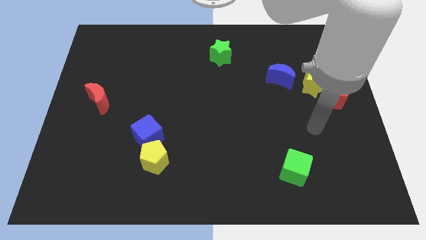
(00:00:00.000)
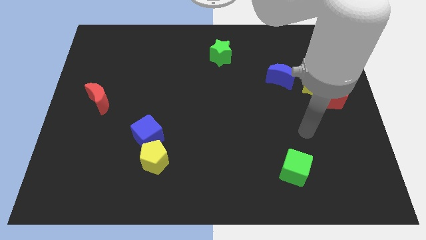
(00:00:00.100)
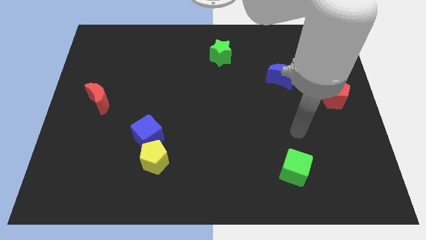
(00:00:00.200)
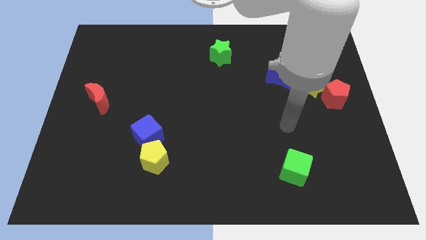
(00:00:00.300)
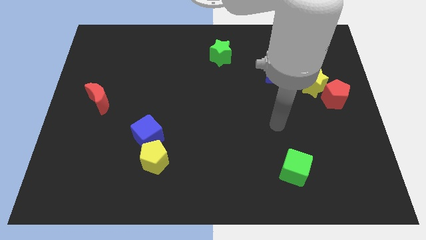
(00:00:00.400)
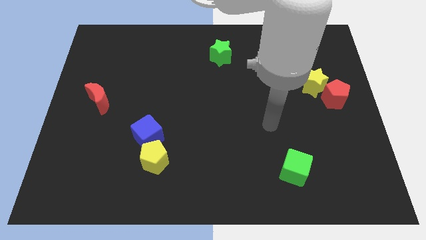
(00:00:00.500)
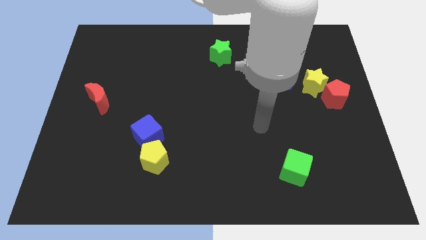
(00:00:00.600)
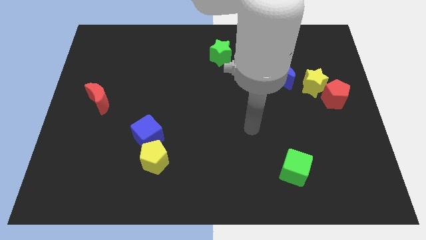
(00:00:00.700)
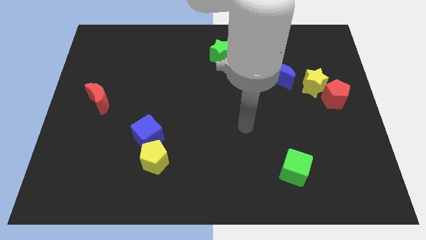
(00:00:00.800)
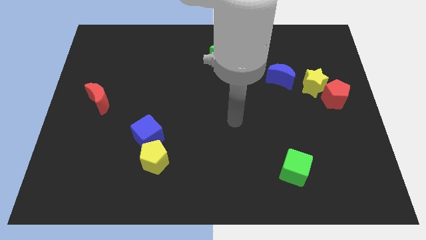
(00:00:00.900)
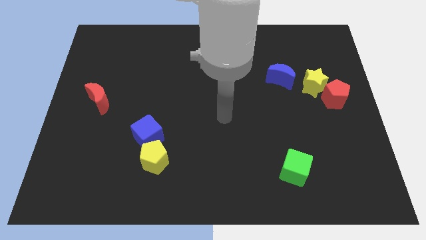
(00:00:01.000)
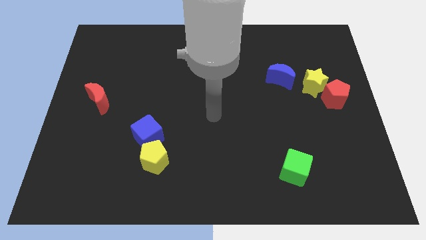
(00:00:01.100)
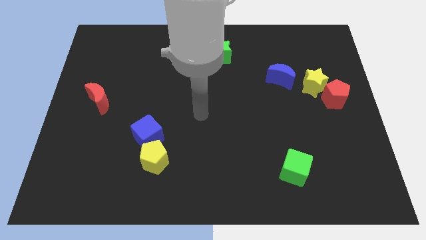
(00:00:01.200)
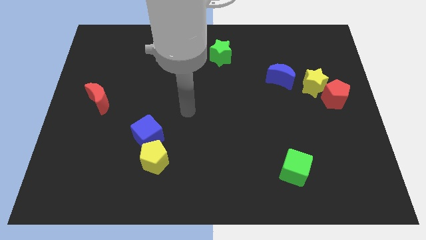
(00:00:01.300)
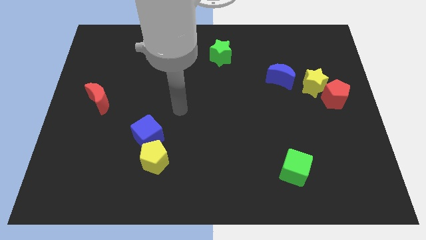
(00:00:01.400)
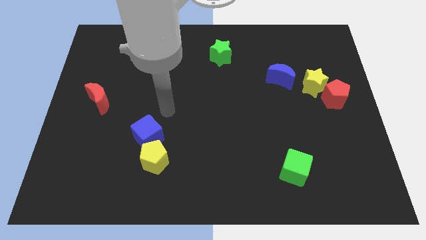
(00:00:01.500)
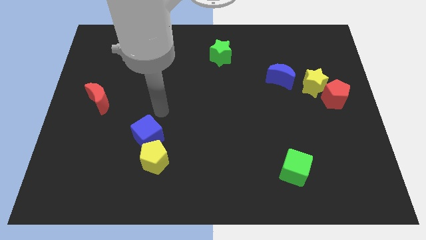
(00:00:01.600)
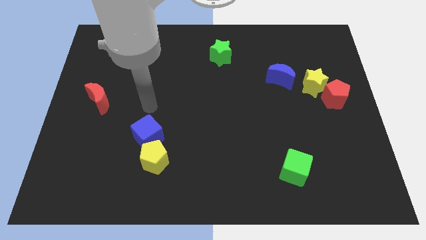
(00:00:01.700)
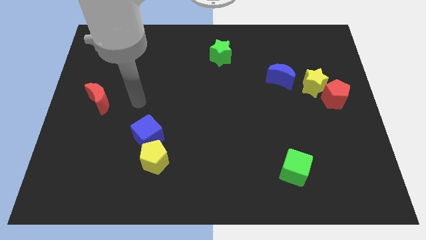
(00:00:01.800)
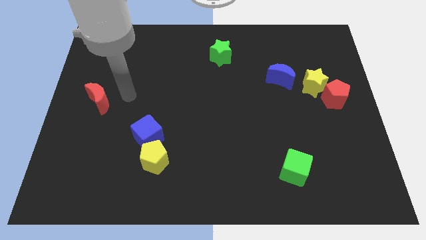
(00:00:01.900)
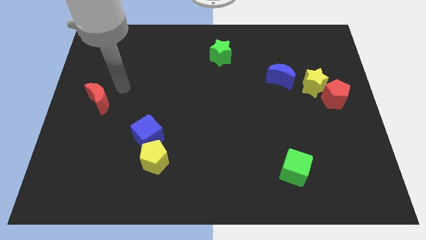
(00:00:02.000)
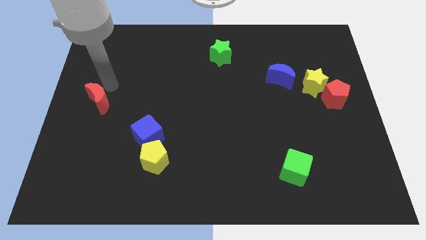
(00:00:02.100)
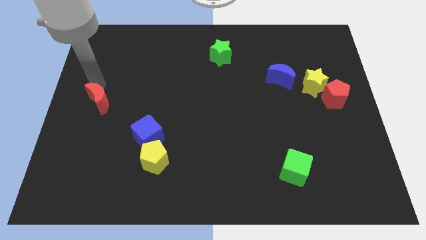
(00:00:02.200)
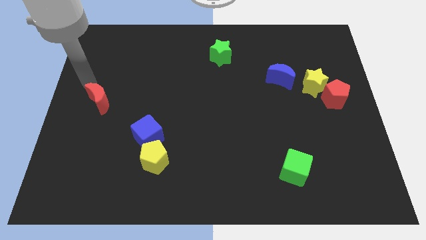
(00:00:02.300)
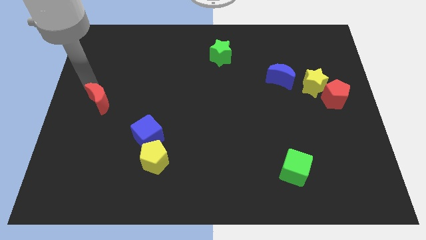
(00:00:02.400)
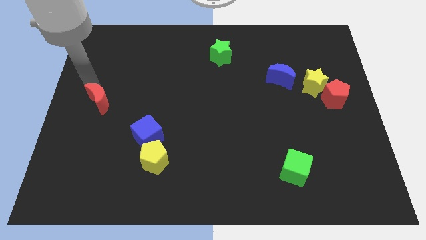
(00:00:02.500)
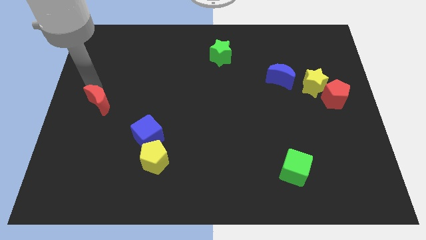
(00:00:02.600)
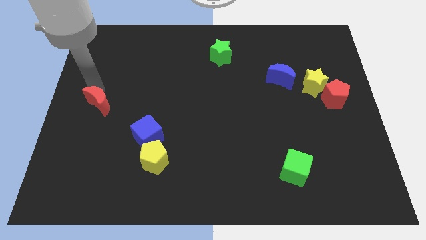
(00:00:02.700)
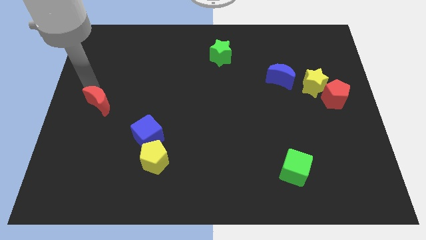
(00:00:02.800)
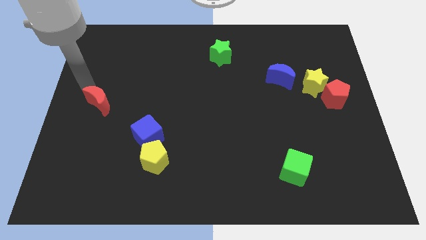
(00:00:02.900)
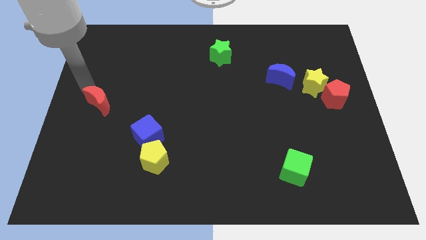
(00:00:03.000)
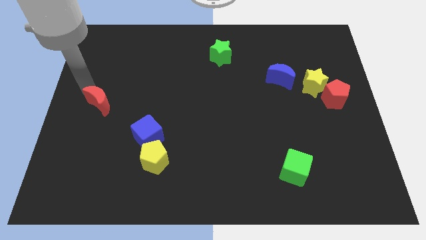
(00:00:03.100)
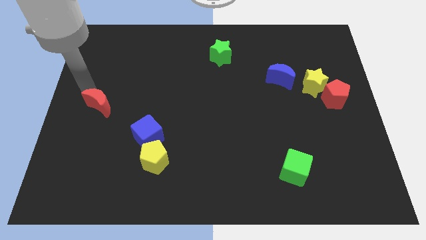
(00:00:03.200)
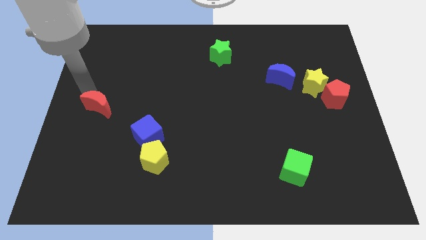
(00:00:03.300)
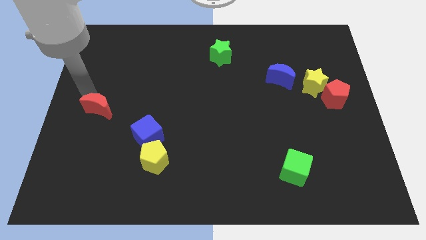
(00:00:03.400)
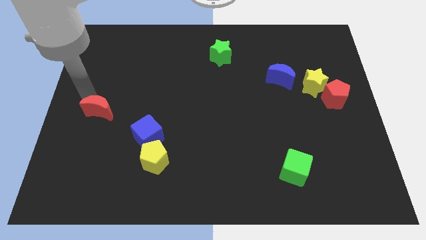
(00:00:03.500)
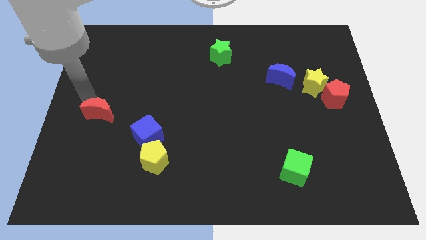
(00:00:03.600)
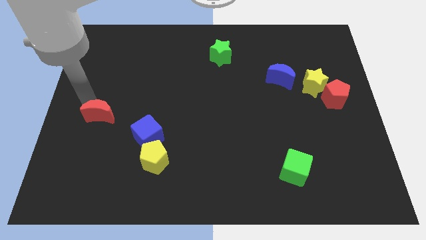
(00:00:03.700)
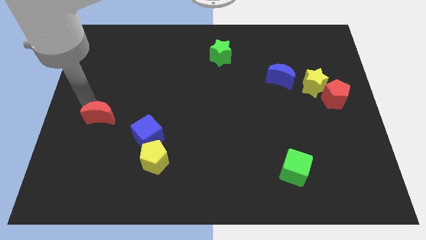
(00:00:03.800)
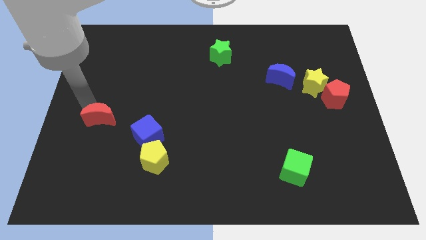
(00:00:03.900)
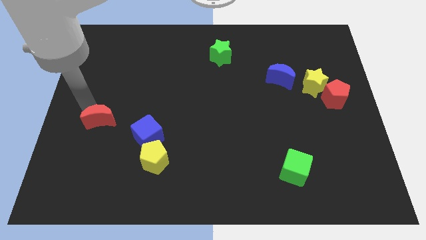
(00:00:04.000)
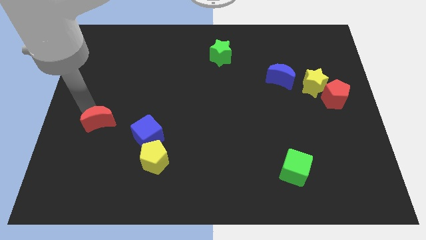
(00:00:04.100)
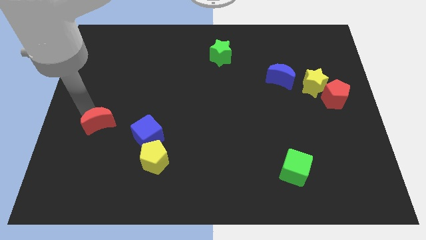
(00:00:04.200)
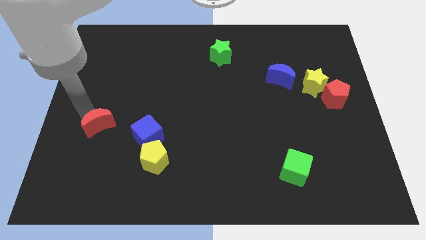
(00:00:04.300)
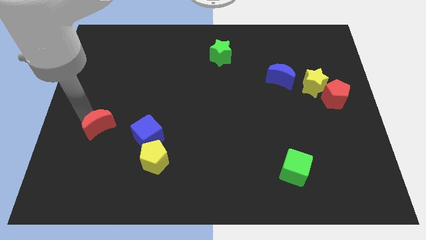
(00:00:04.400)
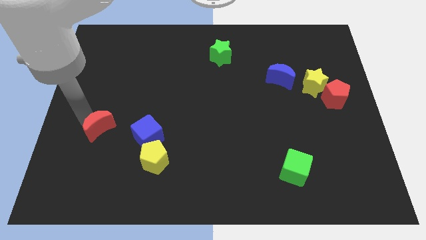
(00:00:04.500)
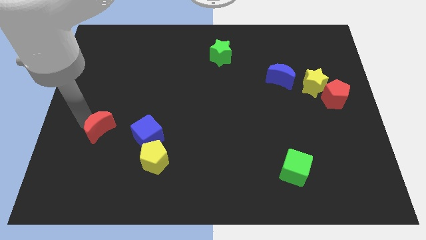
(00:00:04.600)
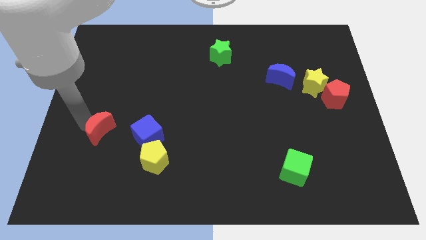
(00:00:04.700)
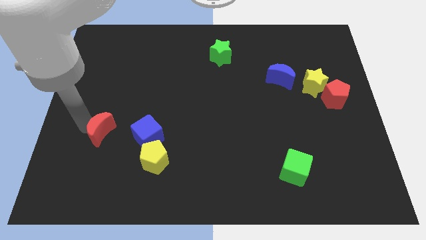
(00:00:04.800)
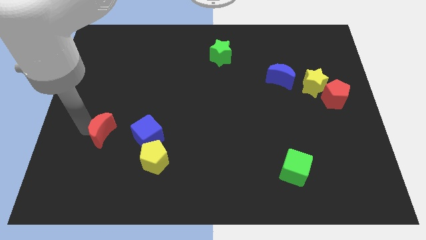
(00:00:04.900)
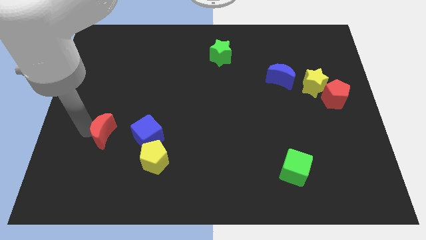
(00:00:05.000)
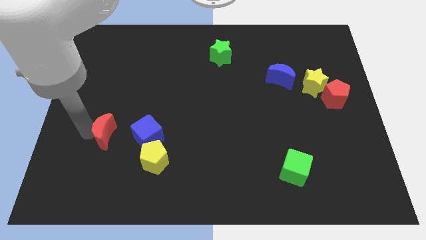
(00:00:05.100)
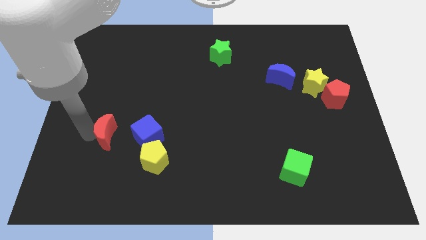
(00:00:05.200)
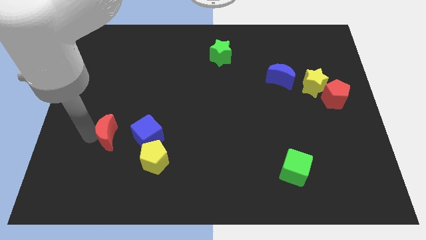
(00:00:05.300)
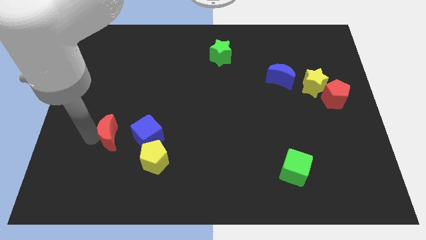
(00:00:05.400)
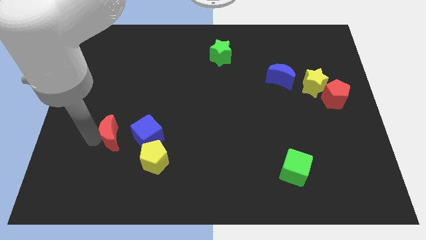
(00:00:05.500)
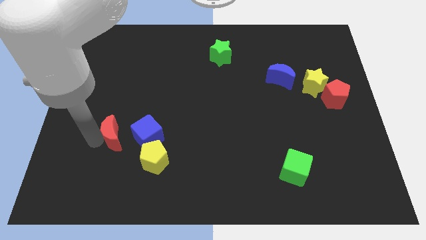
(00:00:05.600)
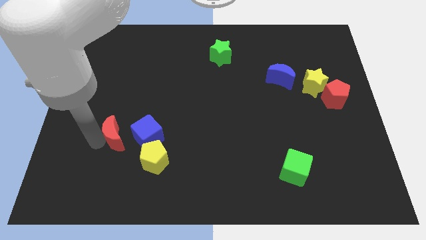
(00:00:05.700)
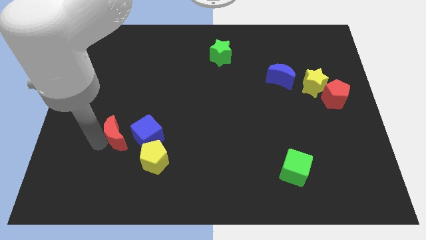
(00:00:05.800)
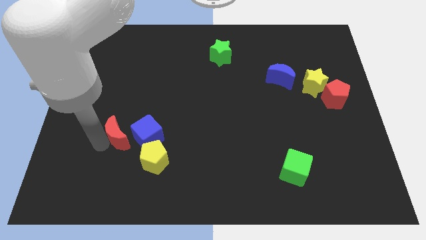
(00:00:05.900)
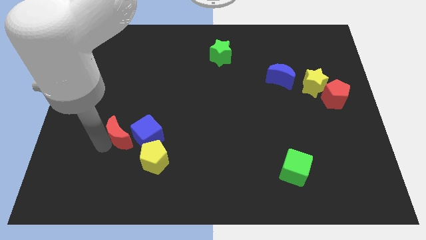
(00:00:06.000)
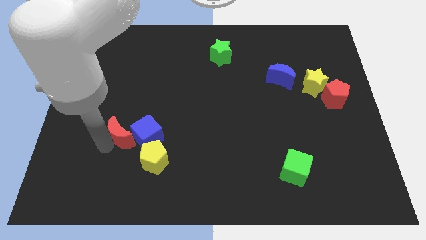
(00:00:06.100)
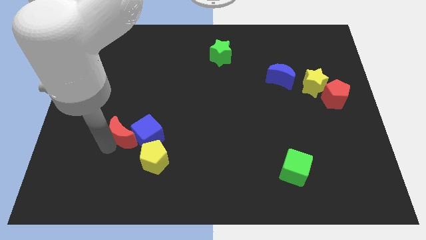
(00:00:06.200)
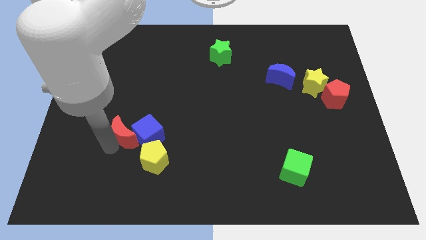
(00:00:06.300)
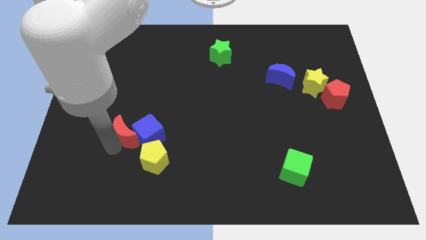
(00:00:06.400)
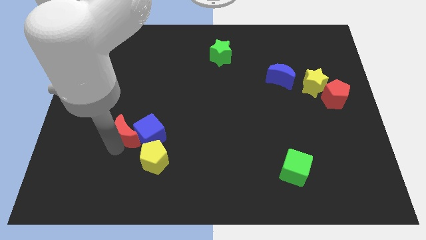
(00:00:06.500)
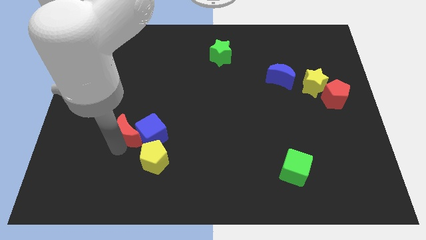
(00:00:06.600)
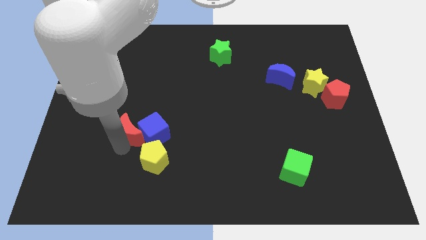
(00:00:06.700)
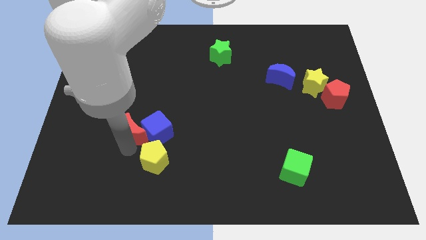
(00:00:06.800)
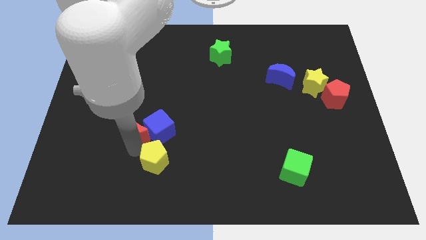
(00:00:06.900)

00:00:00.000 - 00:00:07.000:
move the red moon to the top side of the yellow pentagon
